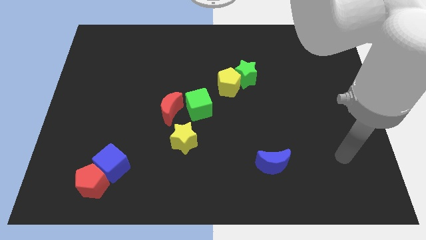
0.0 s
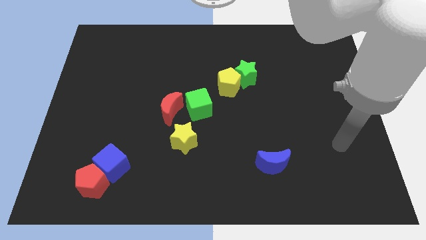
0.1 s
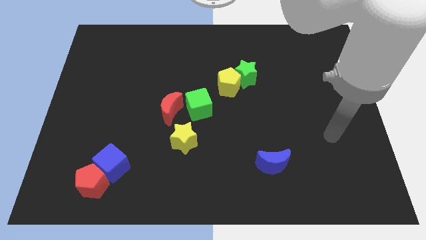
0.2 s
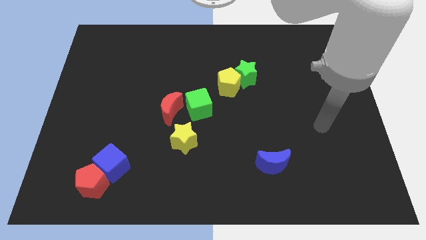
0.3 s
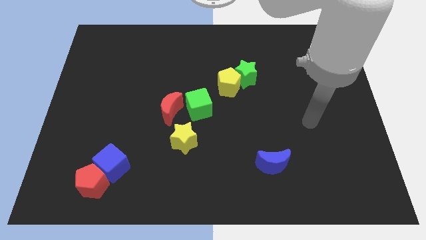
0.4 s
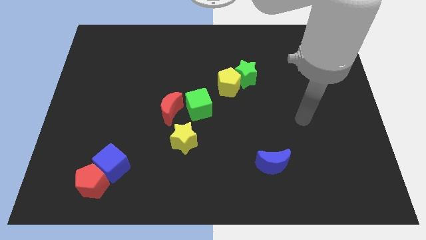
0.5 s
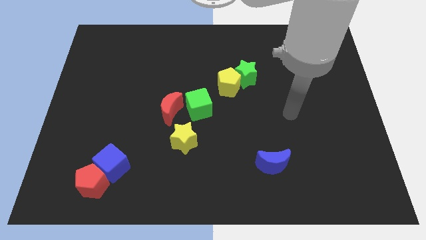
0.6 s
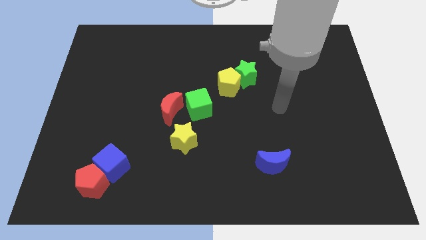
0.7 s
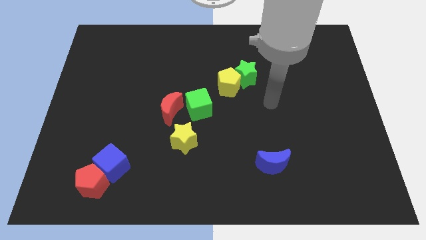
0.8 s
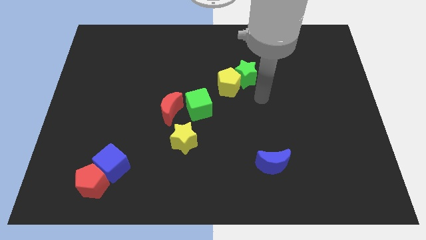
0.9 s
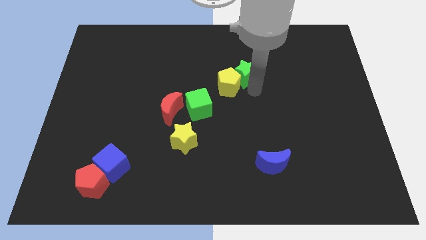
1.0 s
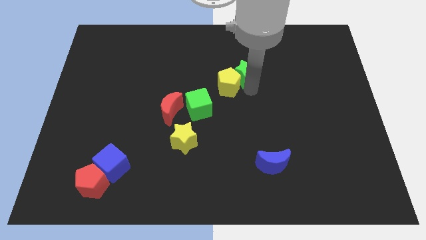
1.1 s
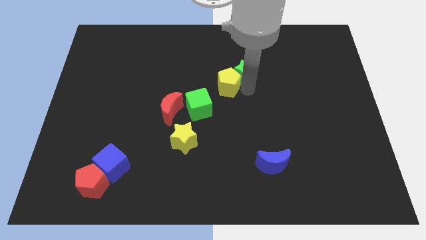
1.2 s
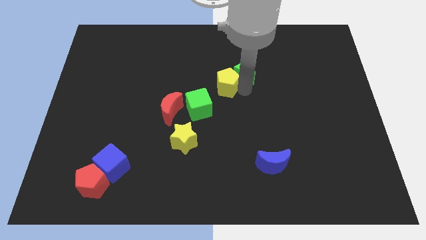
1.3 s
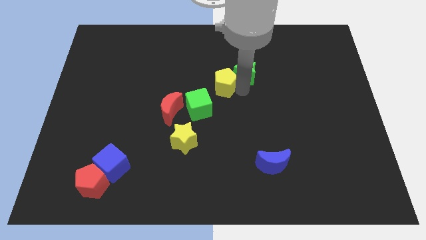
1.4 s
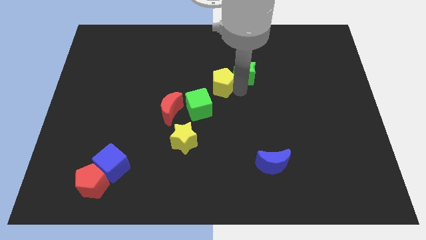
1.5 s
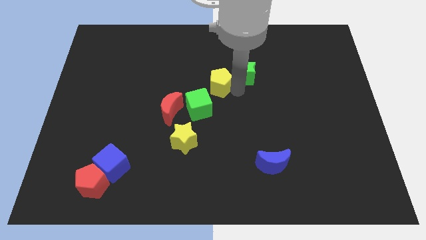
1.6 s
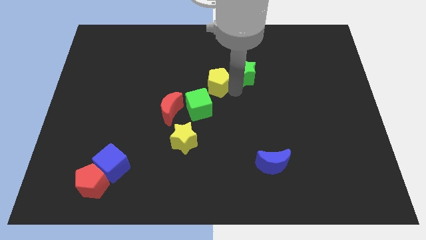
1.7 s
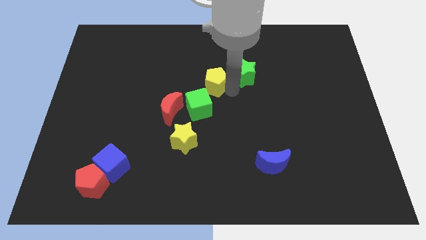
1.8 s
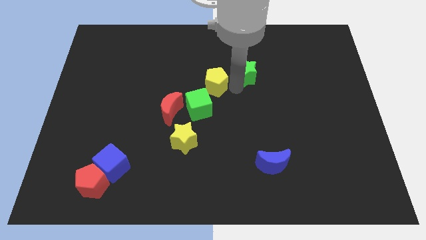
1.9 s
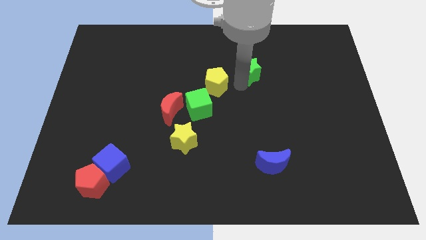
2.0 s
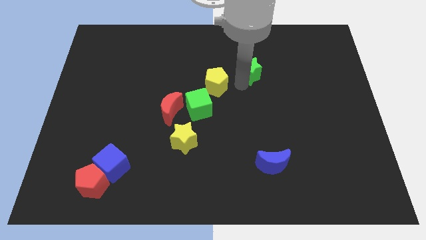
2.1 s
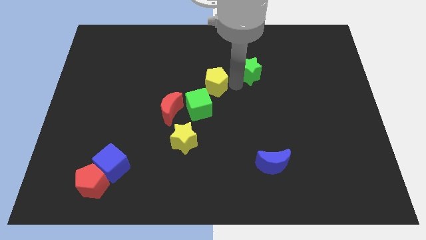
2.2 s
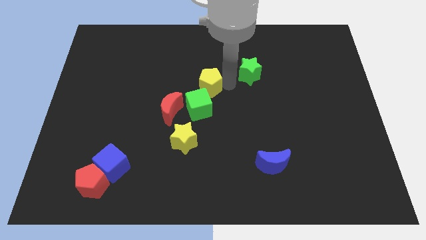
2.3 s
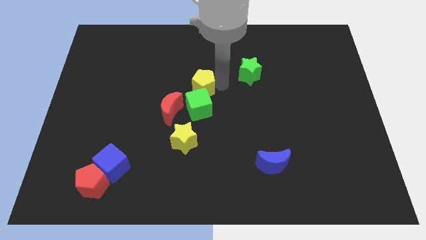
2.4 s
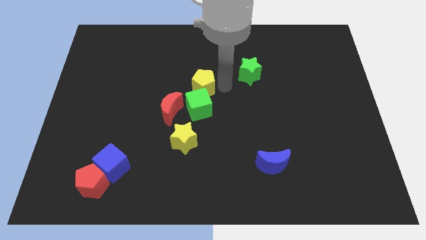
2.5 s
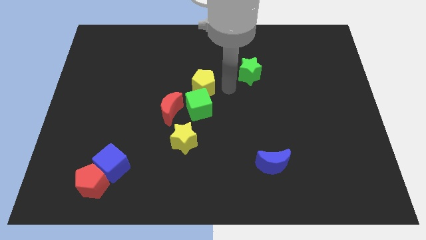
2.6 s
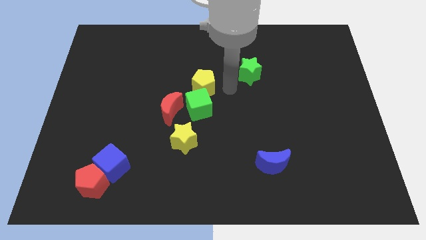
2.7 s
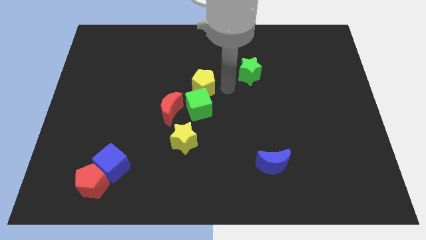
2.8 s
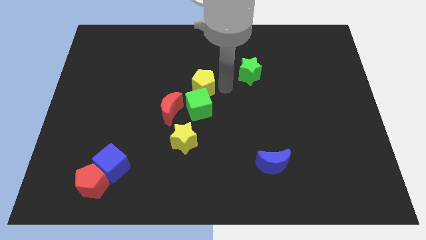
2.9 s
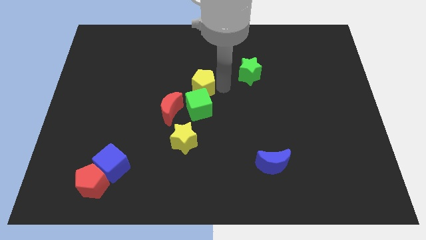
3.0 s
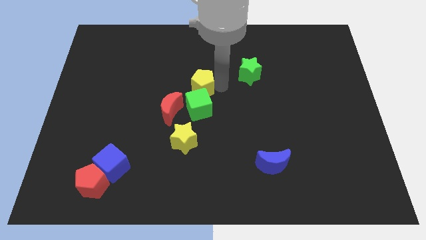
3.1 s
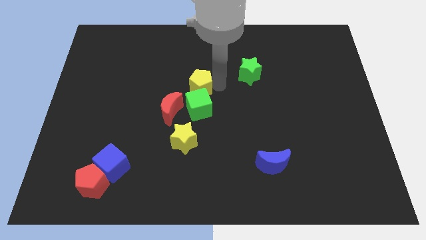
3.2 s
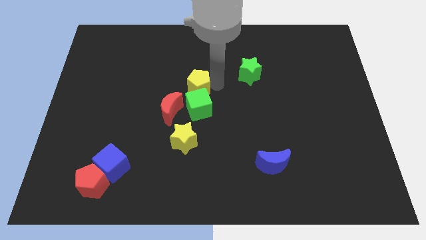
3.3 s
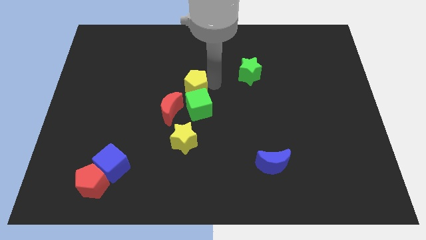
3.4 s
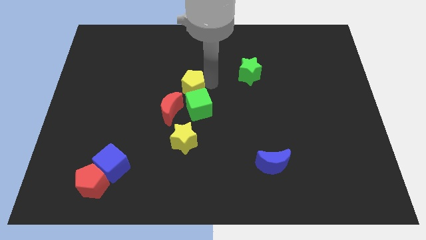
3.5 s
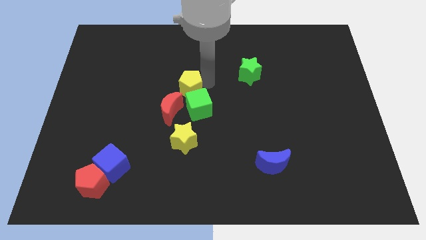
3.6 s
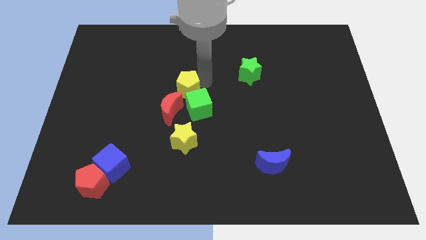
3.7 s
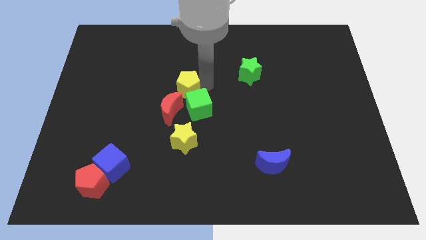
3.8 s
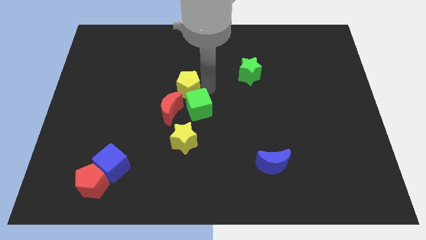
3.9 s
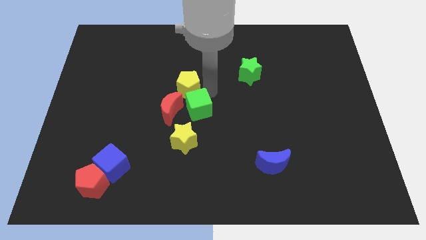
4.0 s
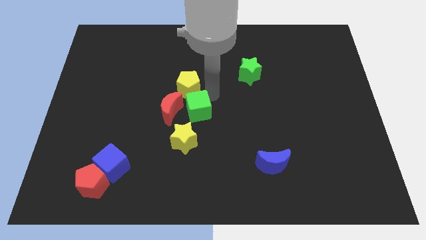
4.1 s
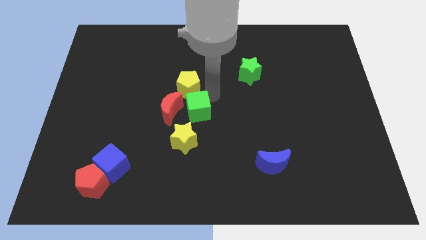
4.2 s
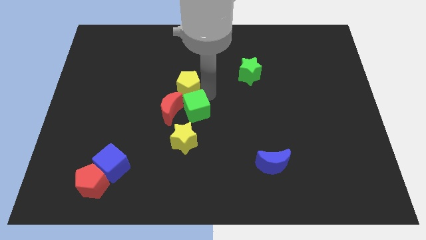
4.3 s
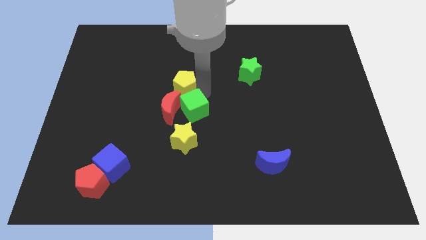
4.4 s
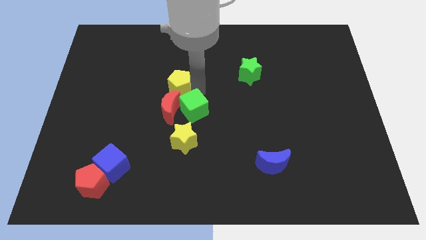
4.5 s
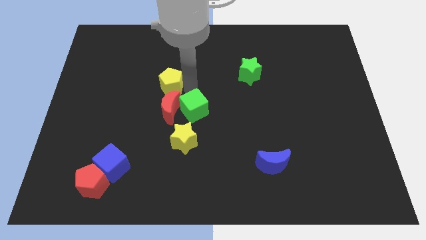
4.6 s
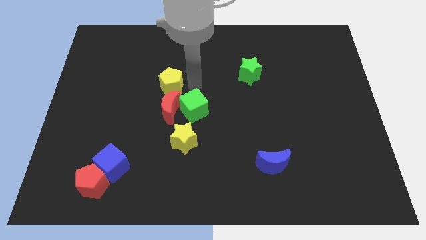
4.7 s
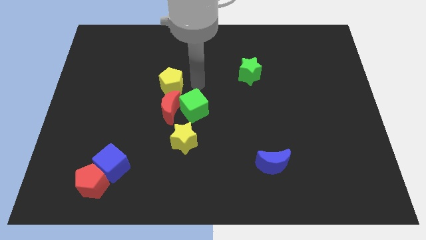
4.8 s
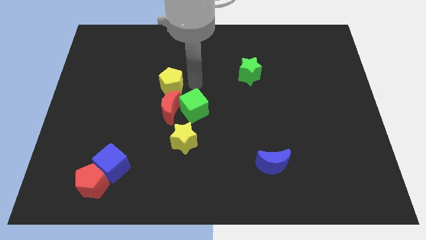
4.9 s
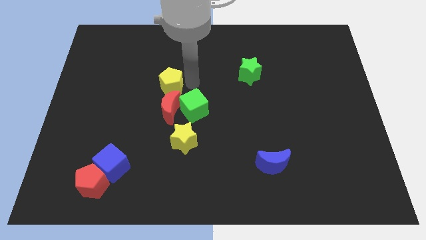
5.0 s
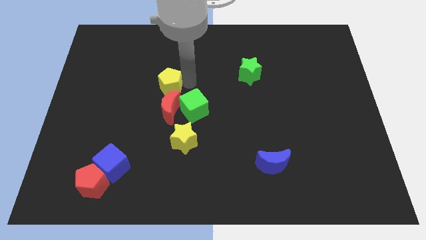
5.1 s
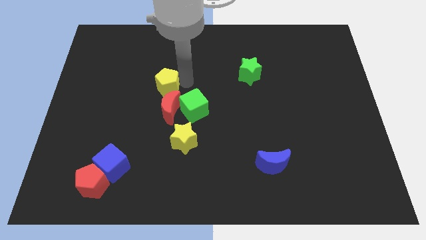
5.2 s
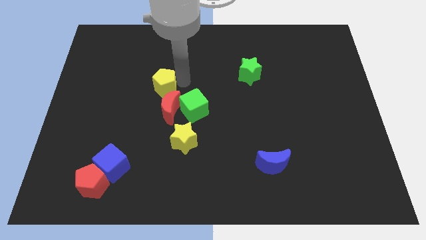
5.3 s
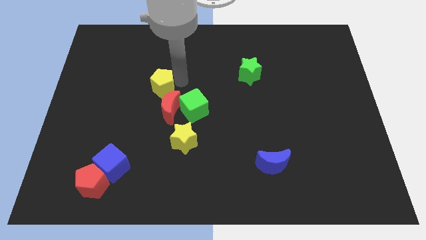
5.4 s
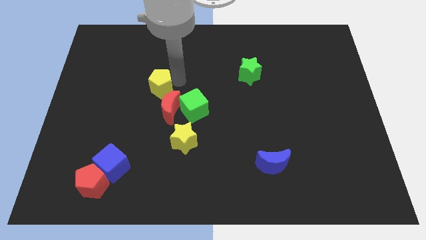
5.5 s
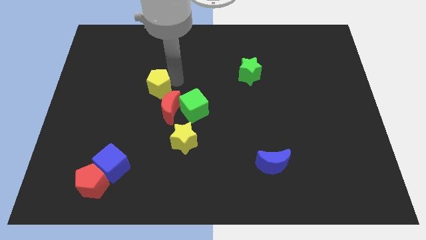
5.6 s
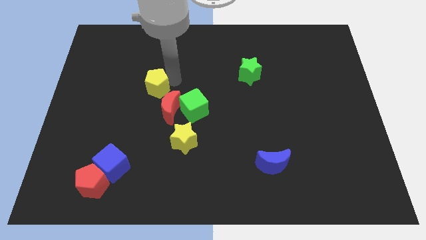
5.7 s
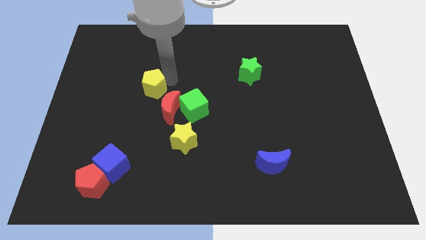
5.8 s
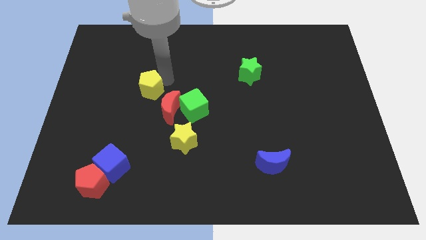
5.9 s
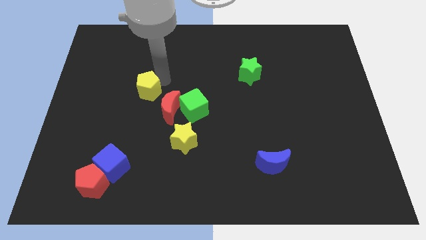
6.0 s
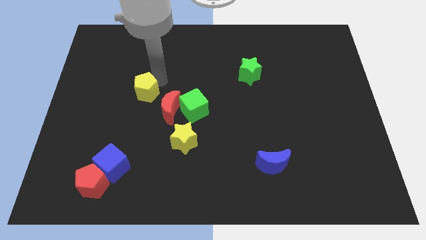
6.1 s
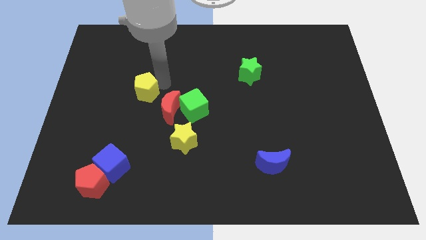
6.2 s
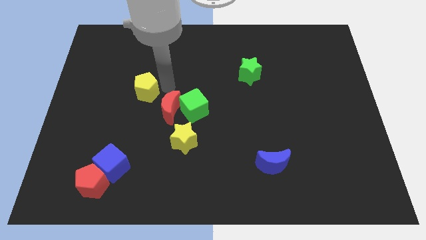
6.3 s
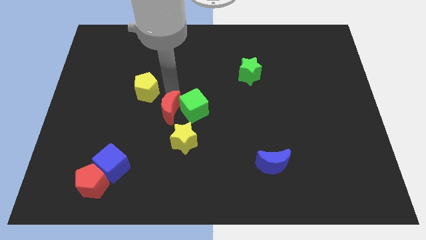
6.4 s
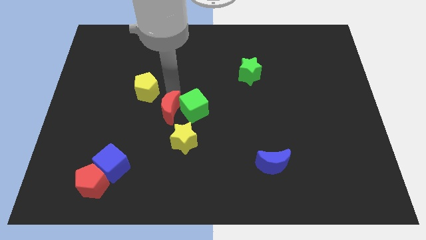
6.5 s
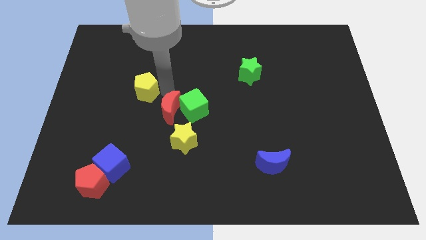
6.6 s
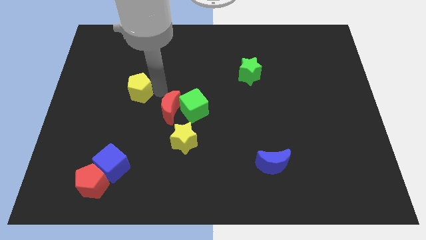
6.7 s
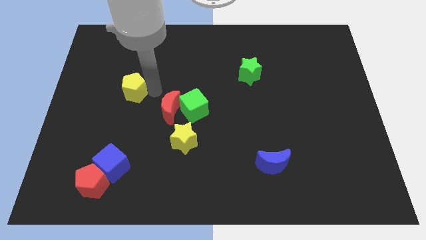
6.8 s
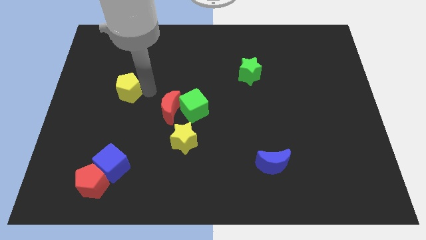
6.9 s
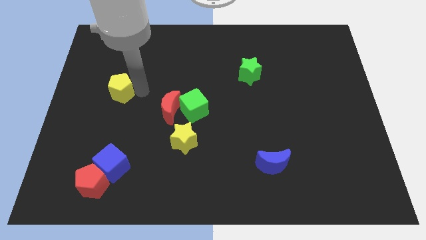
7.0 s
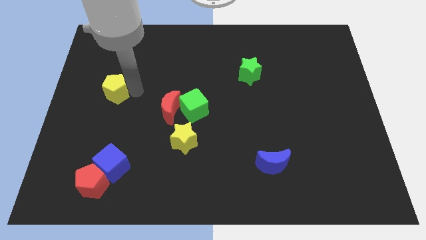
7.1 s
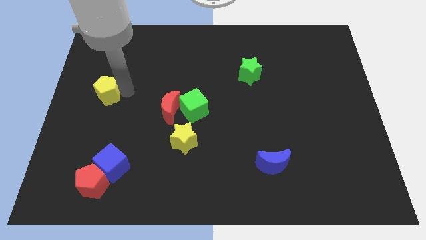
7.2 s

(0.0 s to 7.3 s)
put the yellow pentagon to the center left
